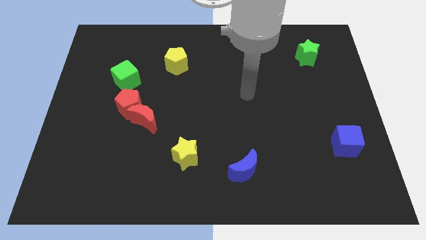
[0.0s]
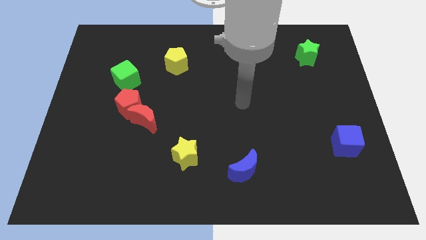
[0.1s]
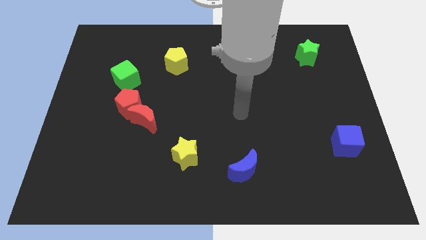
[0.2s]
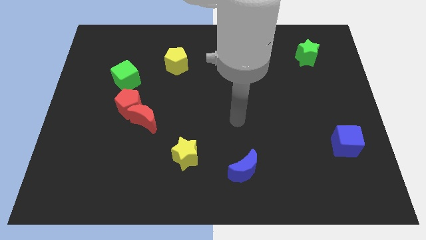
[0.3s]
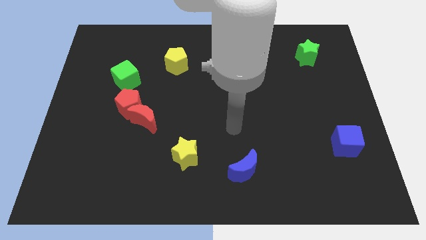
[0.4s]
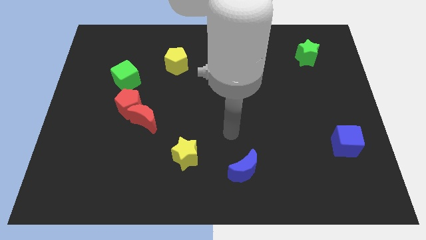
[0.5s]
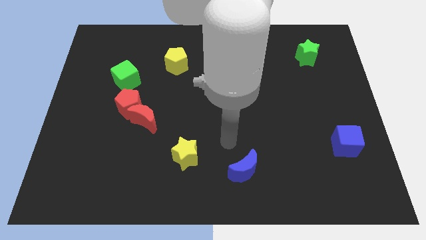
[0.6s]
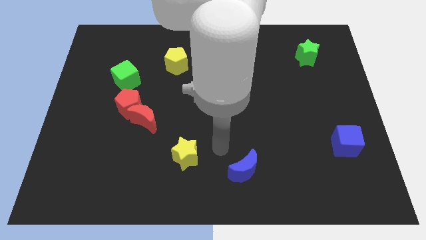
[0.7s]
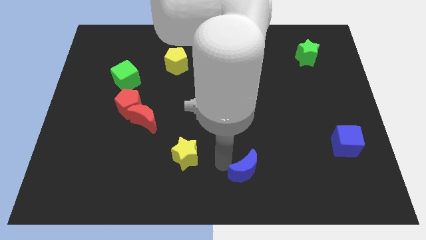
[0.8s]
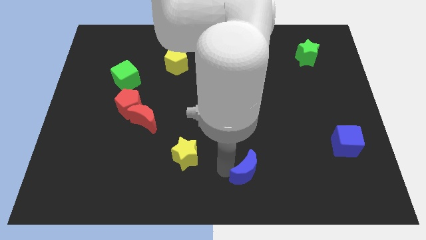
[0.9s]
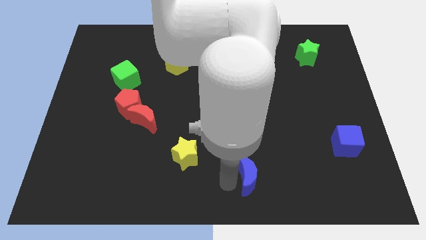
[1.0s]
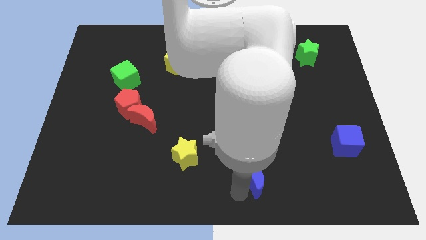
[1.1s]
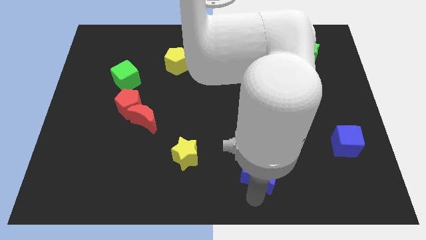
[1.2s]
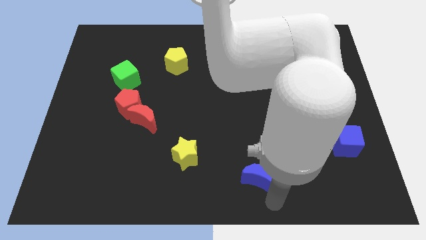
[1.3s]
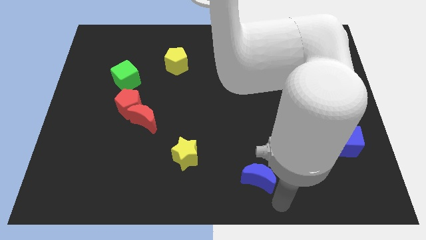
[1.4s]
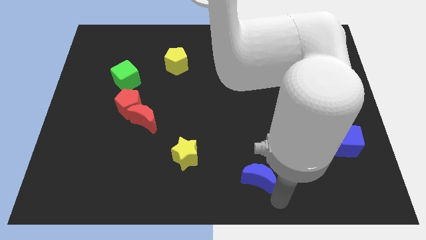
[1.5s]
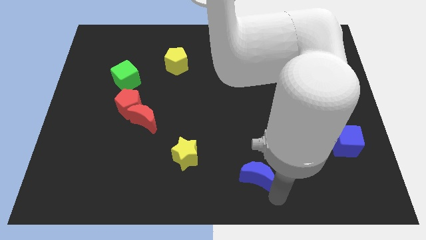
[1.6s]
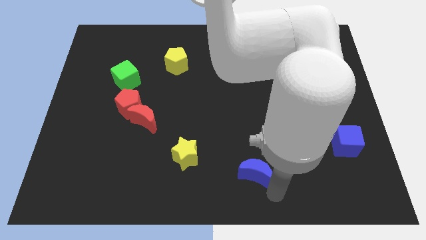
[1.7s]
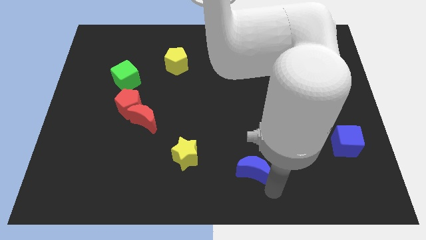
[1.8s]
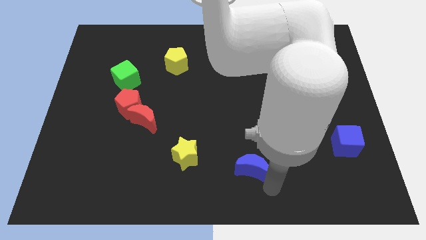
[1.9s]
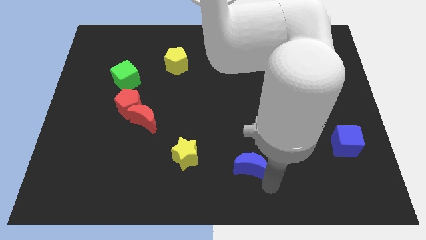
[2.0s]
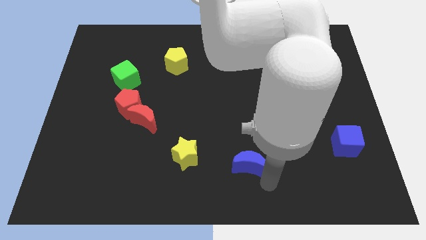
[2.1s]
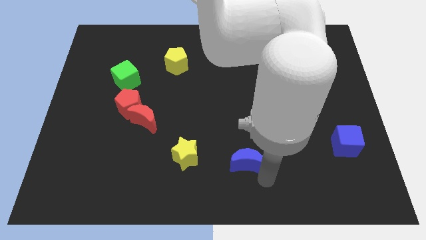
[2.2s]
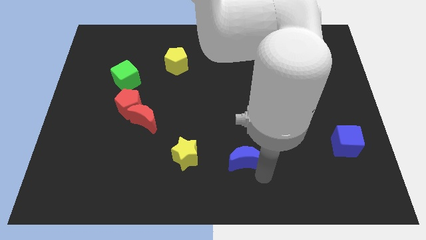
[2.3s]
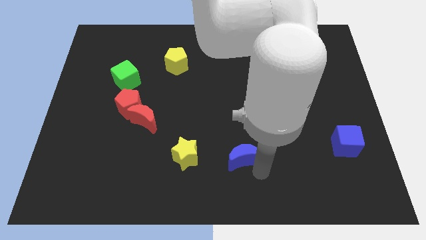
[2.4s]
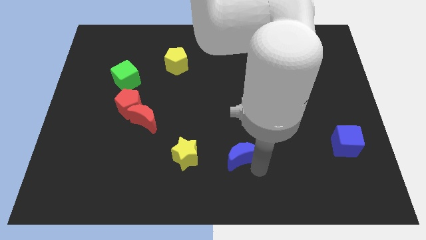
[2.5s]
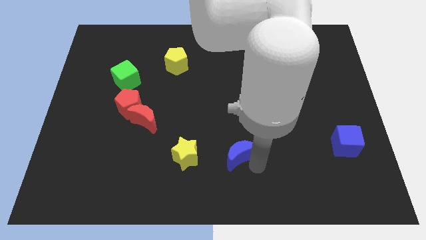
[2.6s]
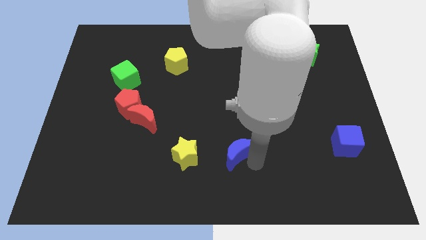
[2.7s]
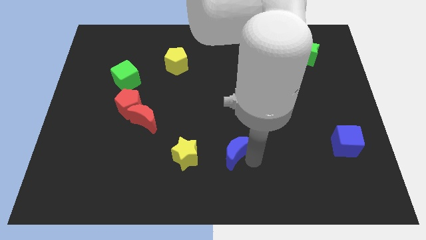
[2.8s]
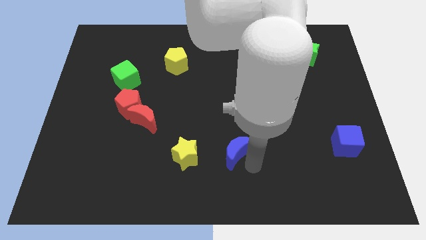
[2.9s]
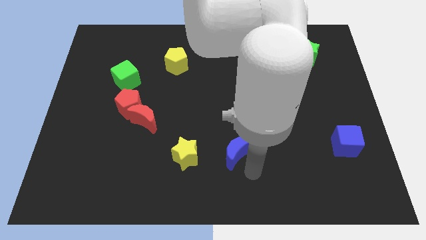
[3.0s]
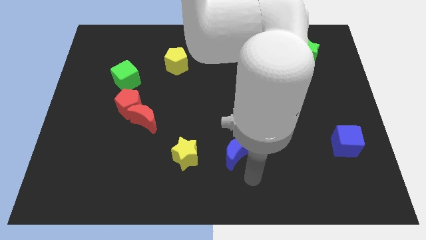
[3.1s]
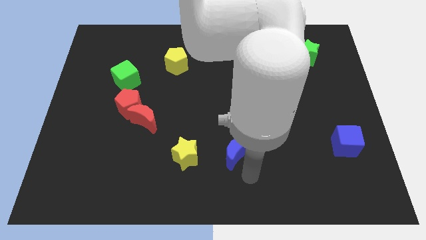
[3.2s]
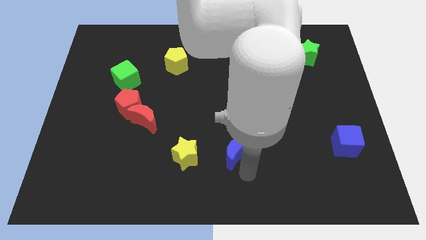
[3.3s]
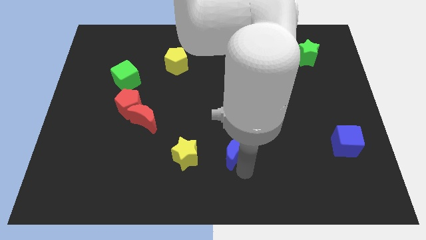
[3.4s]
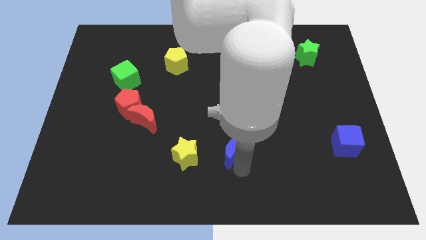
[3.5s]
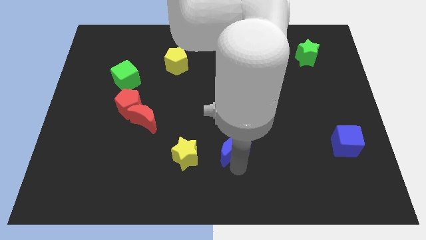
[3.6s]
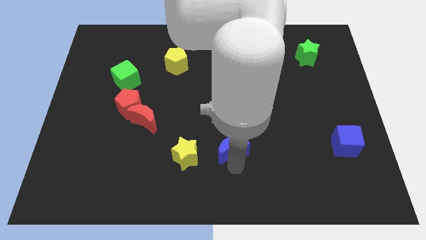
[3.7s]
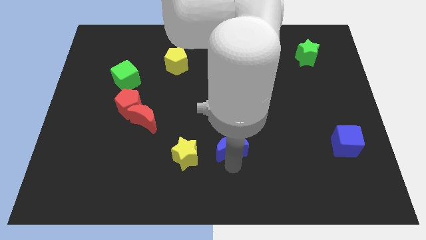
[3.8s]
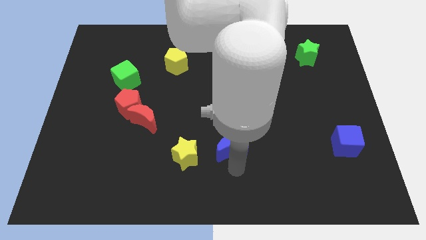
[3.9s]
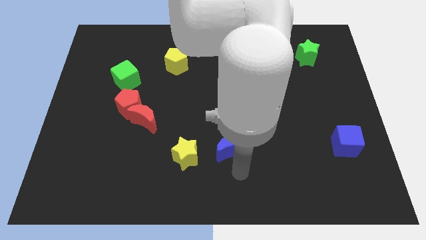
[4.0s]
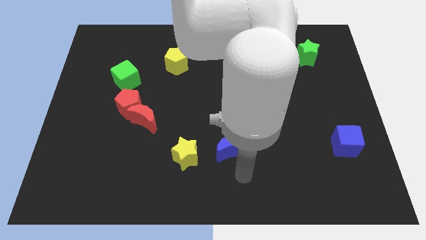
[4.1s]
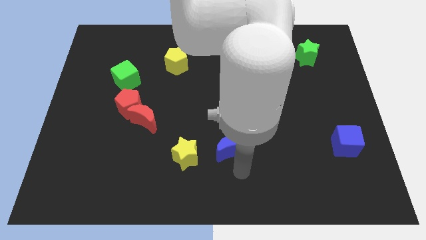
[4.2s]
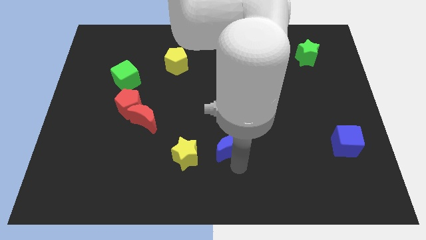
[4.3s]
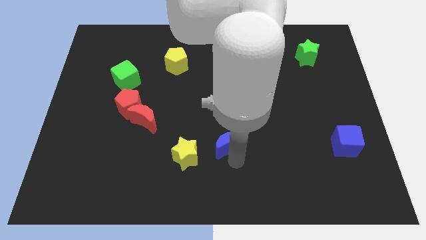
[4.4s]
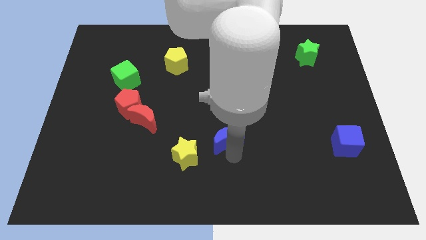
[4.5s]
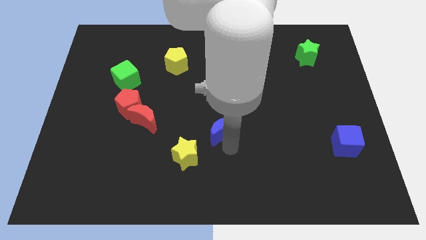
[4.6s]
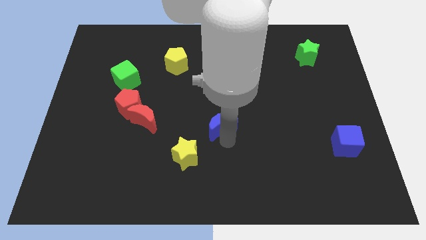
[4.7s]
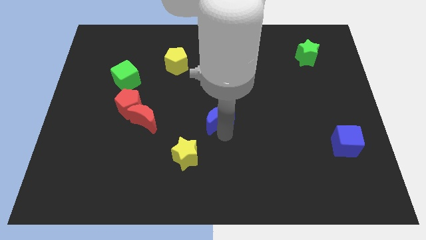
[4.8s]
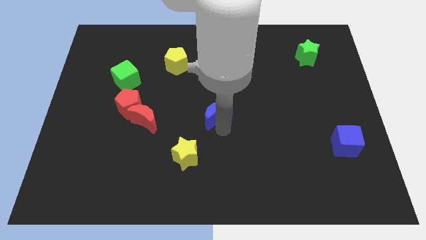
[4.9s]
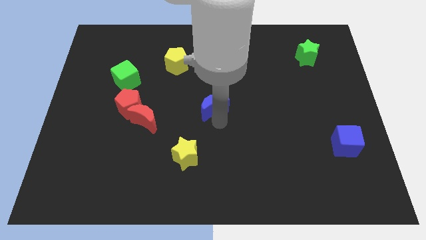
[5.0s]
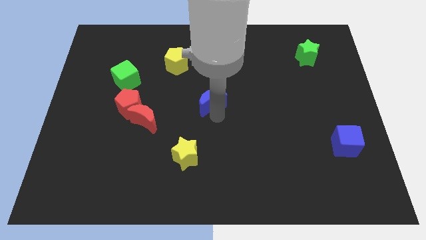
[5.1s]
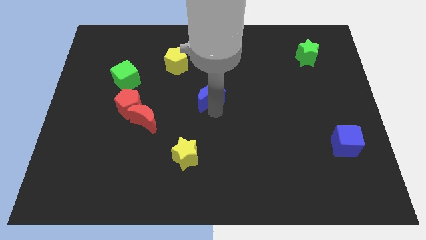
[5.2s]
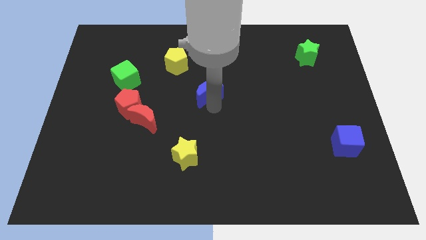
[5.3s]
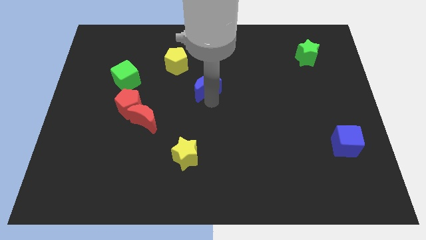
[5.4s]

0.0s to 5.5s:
slide the blue moon to the bottom right of the yellow pentagon

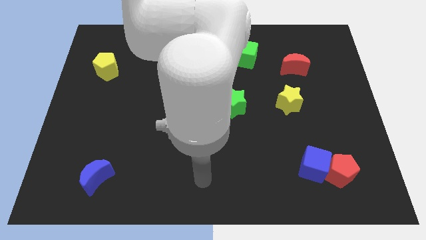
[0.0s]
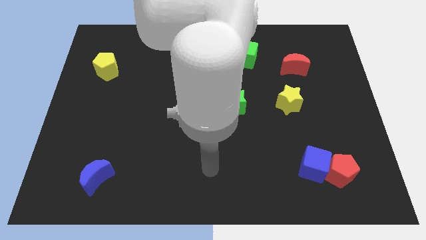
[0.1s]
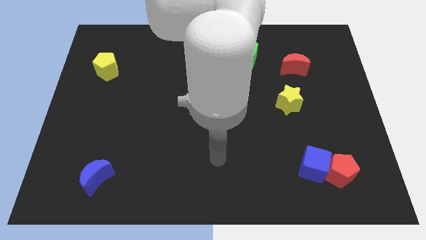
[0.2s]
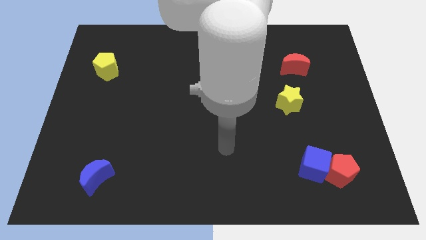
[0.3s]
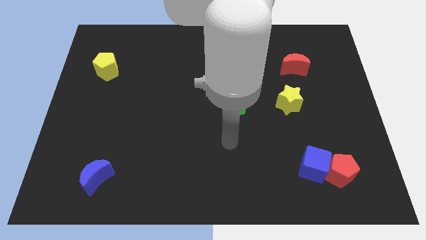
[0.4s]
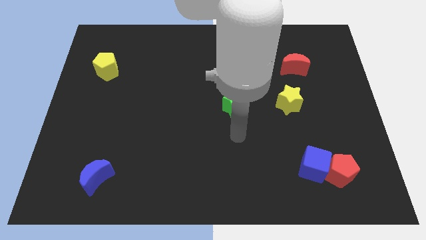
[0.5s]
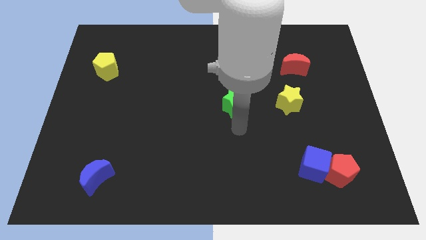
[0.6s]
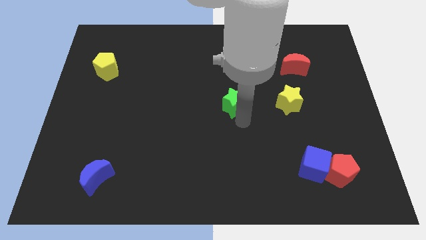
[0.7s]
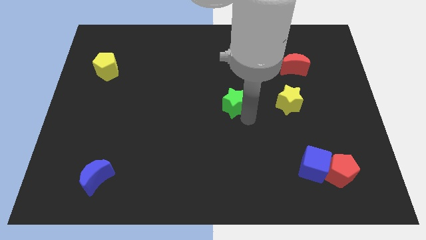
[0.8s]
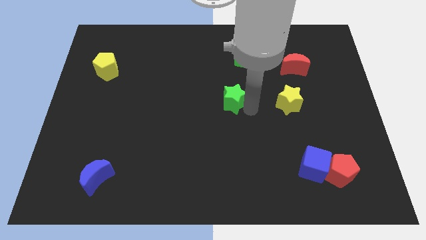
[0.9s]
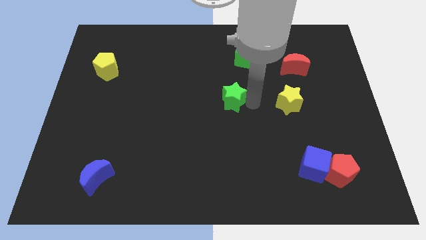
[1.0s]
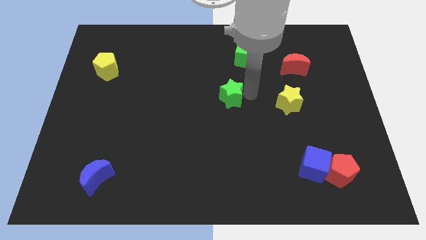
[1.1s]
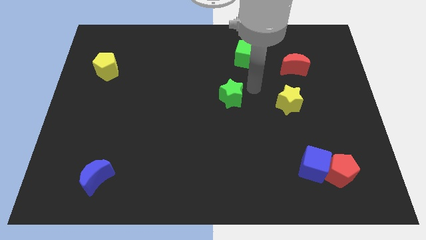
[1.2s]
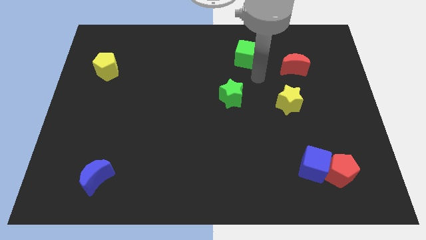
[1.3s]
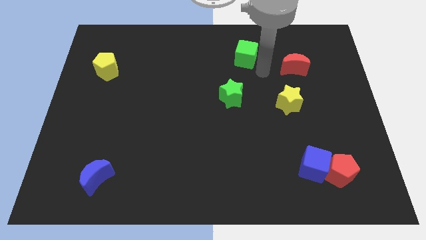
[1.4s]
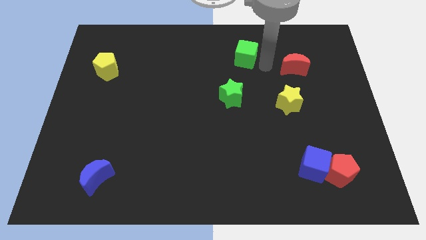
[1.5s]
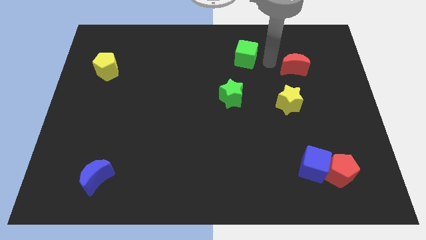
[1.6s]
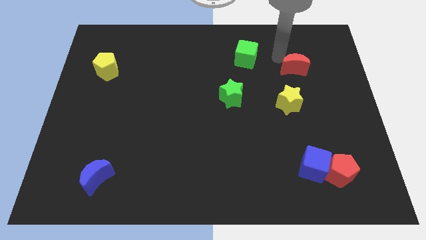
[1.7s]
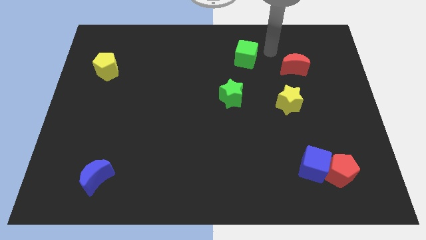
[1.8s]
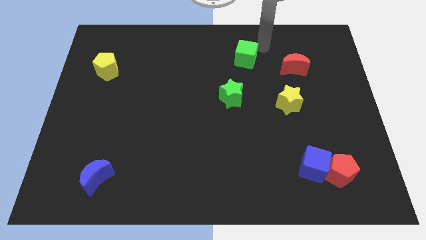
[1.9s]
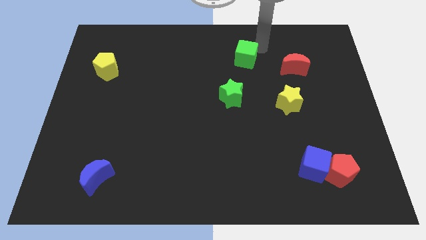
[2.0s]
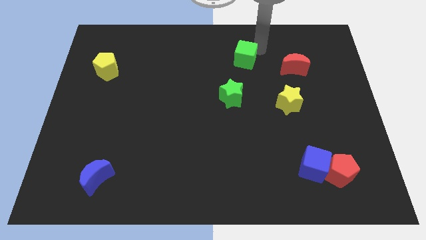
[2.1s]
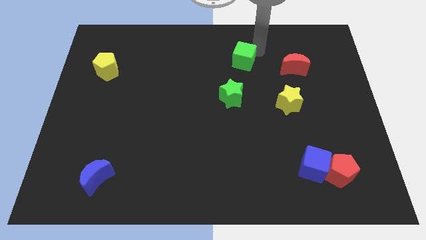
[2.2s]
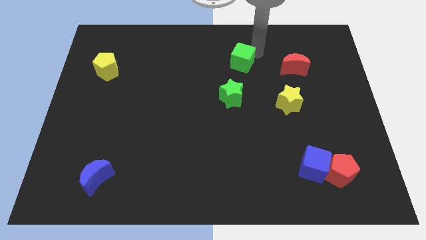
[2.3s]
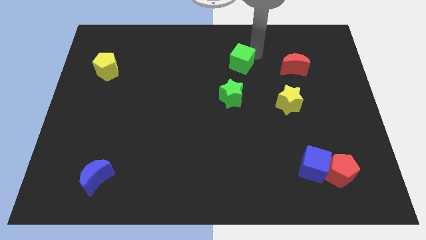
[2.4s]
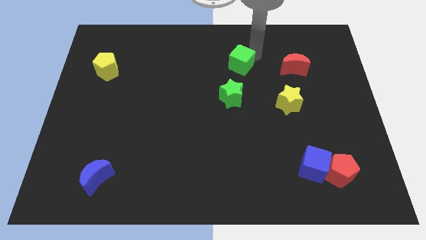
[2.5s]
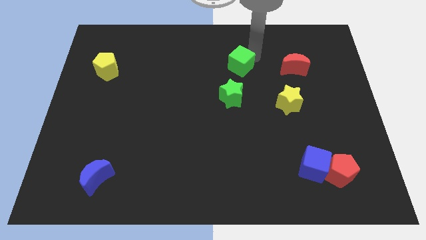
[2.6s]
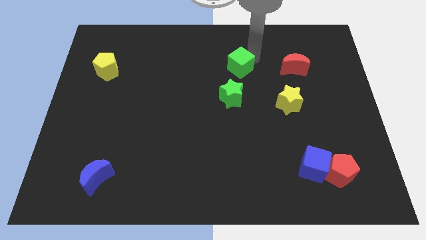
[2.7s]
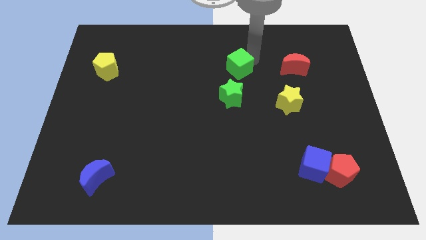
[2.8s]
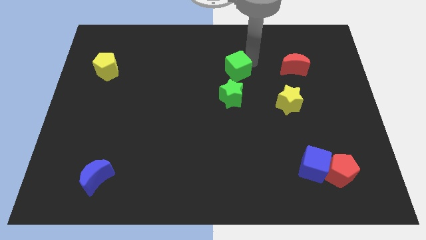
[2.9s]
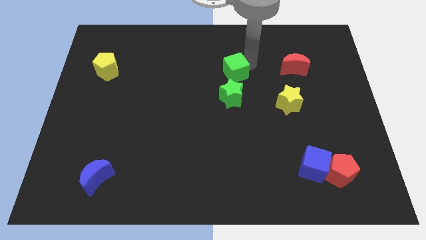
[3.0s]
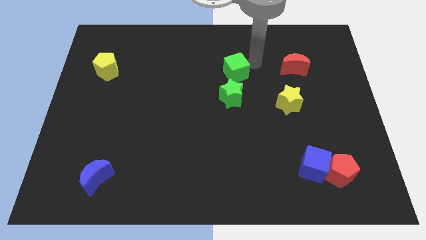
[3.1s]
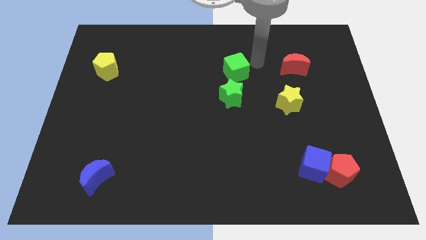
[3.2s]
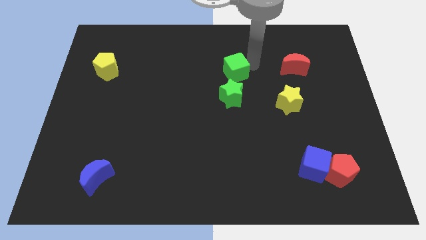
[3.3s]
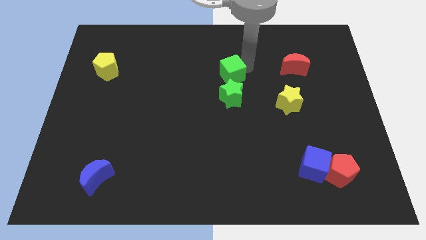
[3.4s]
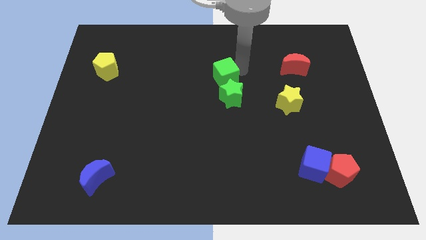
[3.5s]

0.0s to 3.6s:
move the green cube diagonally up and to the left of the green star
